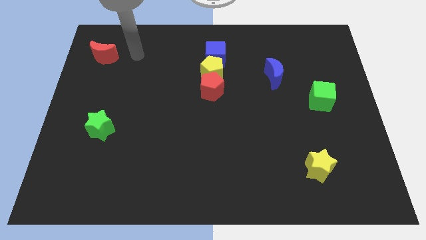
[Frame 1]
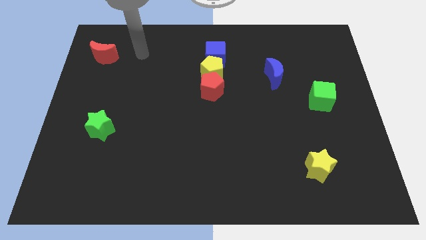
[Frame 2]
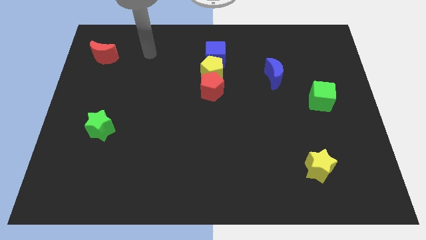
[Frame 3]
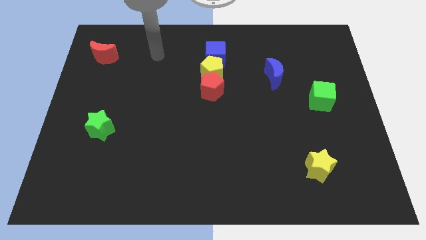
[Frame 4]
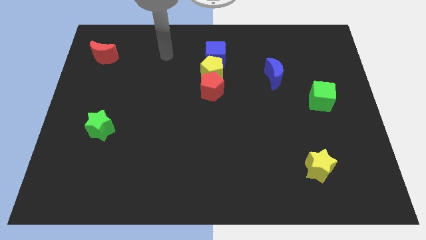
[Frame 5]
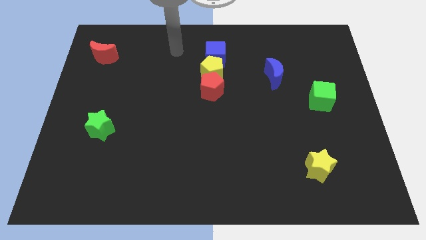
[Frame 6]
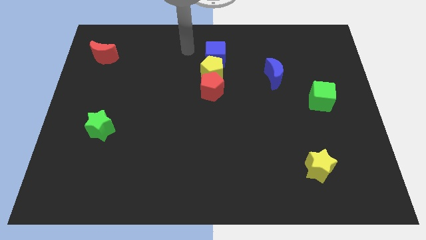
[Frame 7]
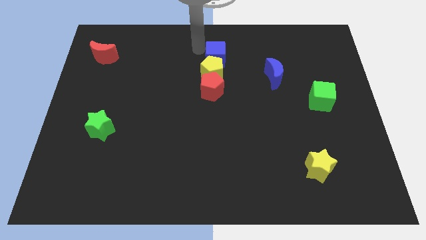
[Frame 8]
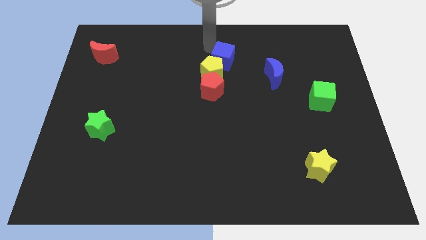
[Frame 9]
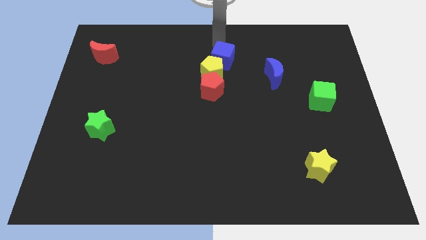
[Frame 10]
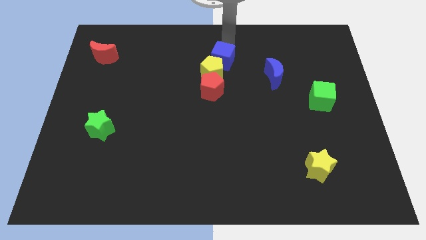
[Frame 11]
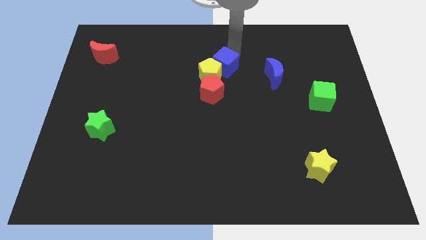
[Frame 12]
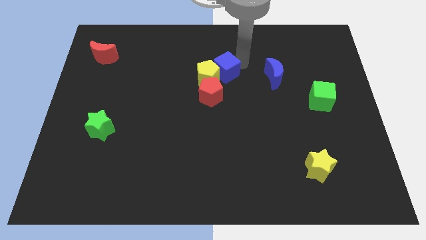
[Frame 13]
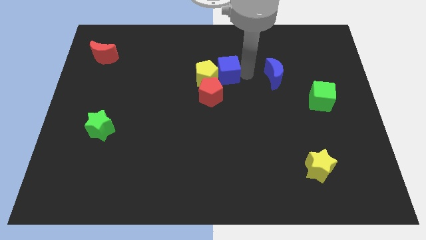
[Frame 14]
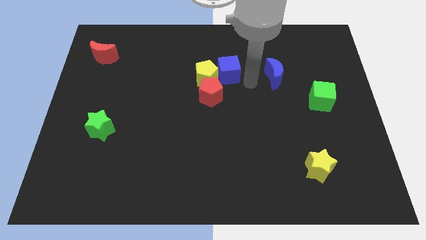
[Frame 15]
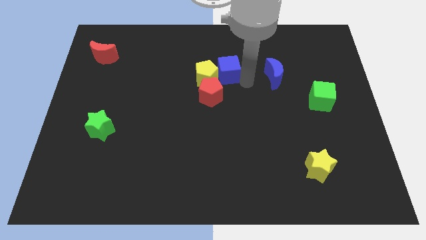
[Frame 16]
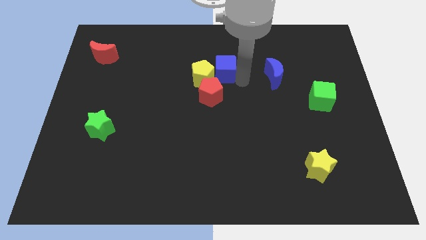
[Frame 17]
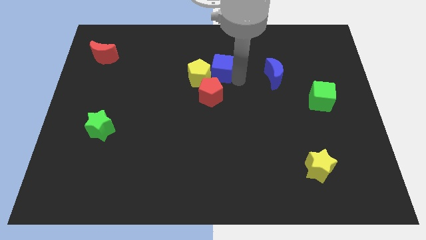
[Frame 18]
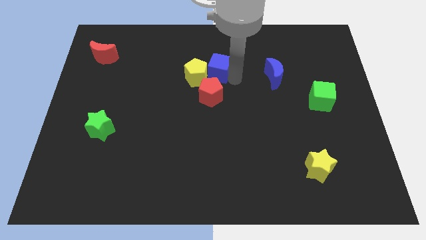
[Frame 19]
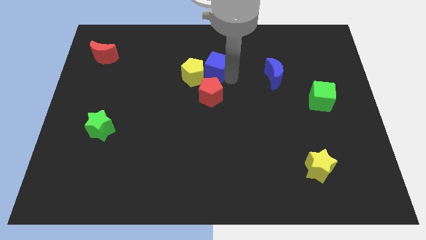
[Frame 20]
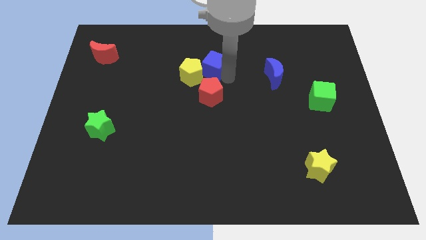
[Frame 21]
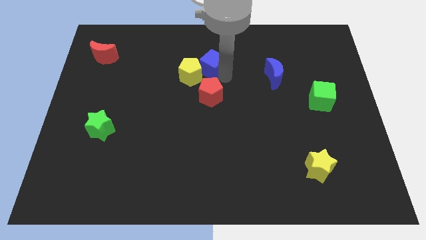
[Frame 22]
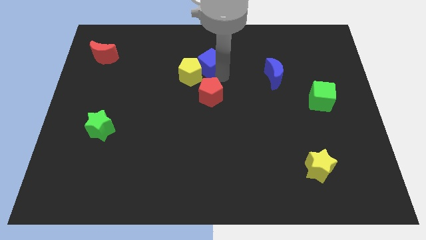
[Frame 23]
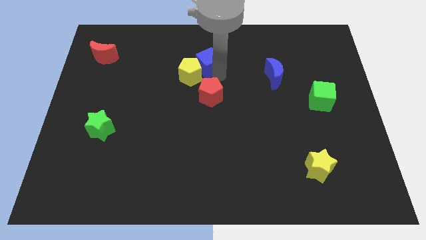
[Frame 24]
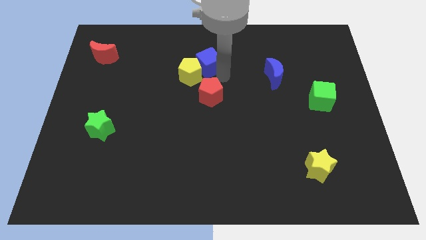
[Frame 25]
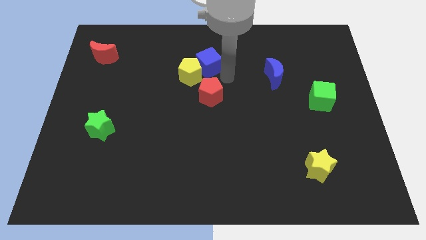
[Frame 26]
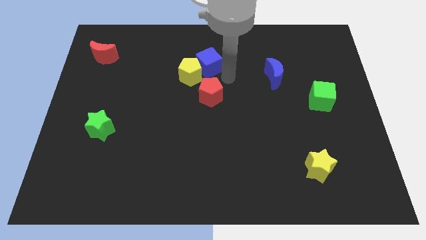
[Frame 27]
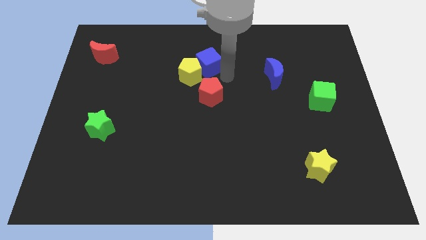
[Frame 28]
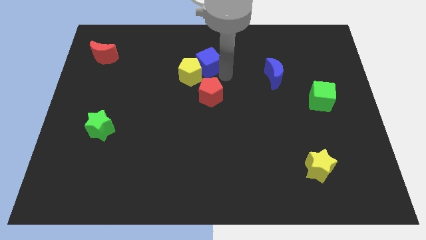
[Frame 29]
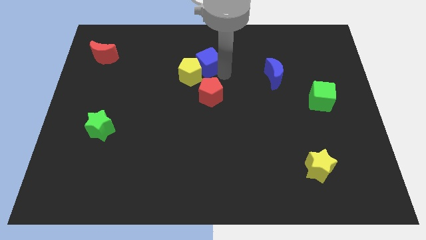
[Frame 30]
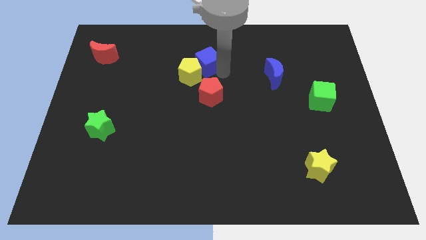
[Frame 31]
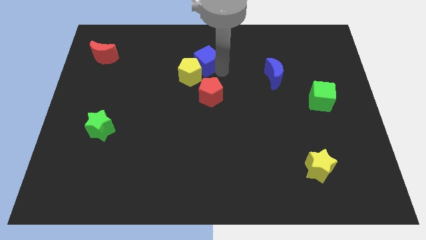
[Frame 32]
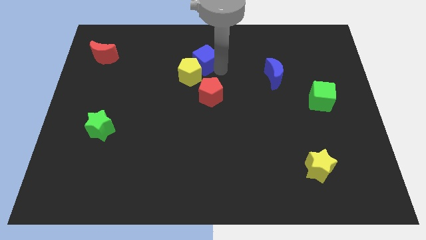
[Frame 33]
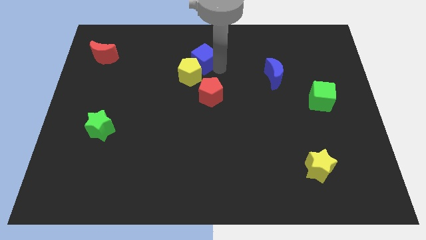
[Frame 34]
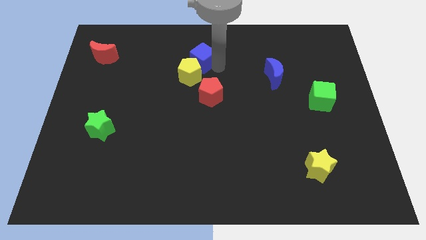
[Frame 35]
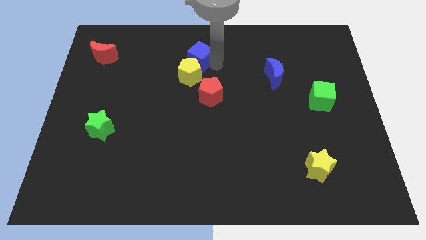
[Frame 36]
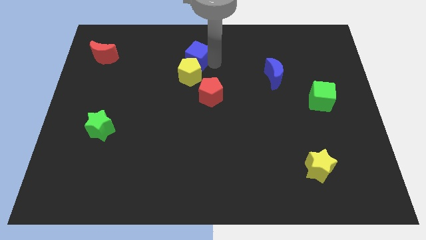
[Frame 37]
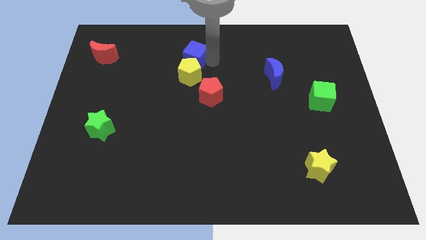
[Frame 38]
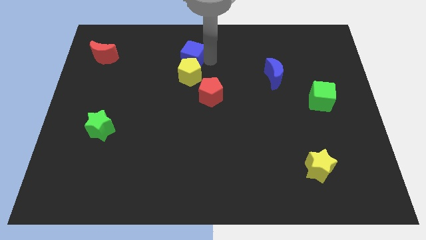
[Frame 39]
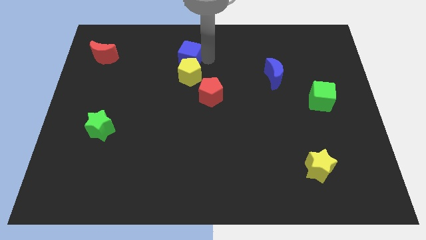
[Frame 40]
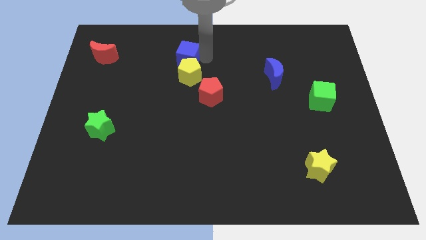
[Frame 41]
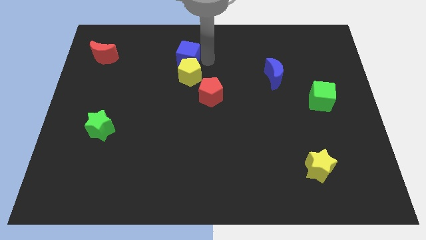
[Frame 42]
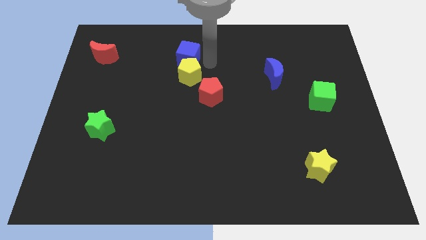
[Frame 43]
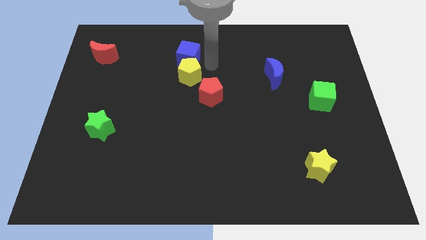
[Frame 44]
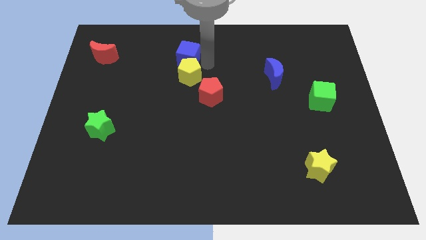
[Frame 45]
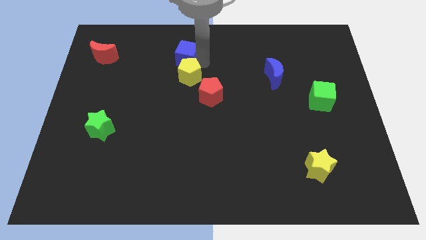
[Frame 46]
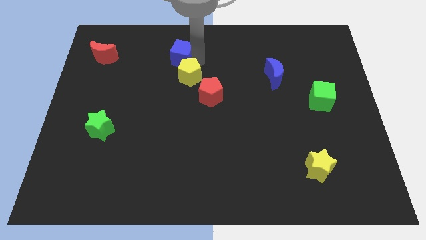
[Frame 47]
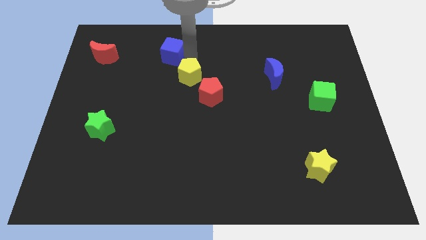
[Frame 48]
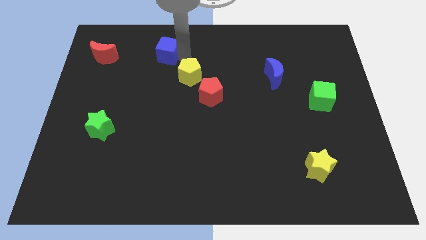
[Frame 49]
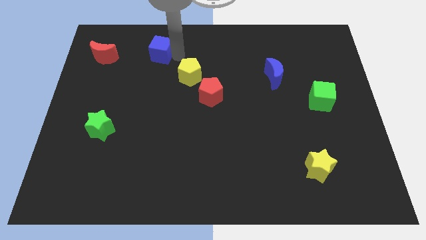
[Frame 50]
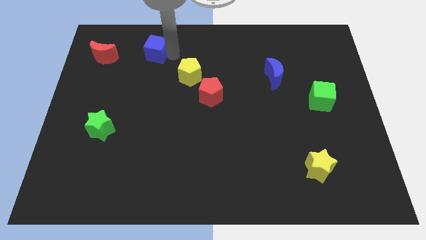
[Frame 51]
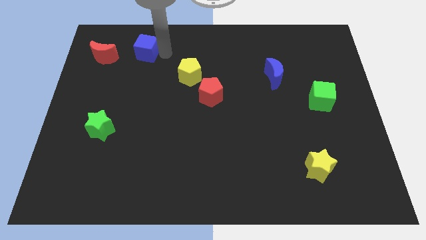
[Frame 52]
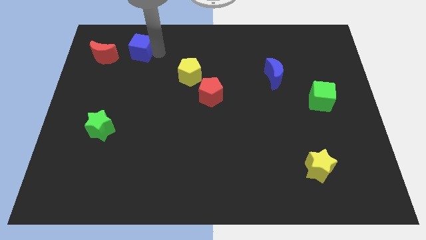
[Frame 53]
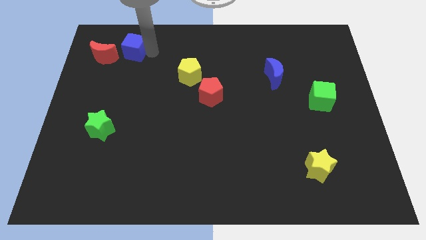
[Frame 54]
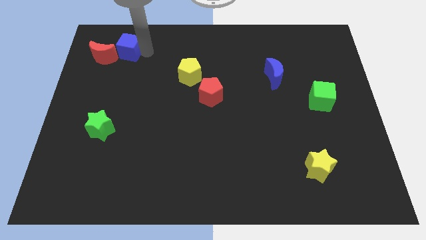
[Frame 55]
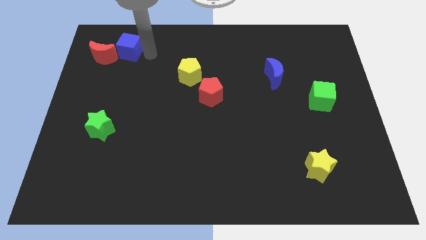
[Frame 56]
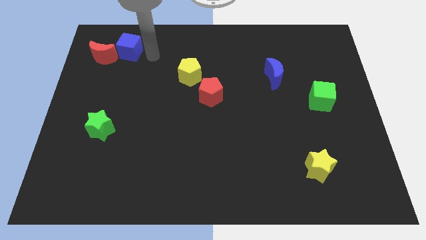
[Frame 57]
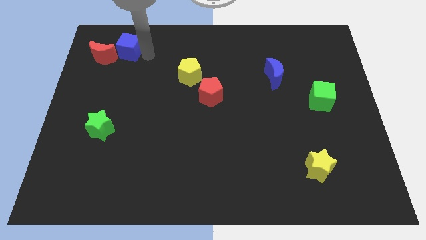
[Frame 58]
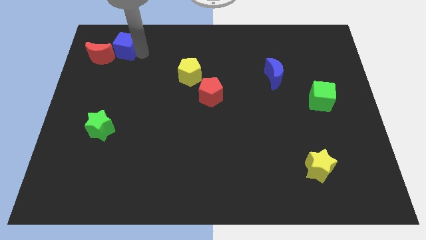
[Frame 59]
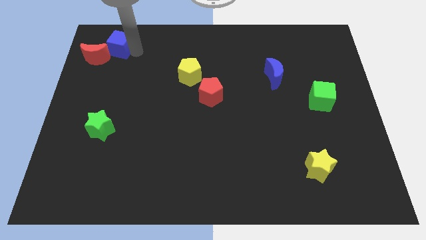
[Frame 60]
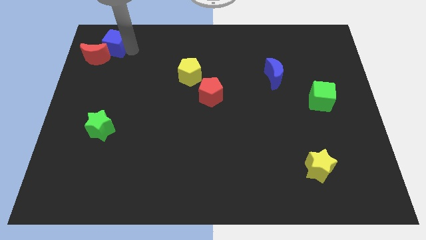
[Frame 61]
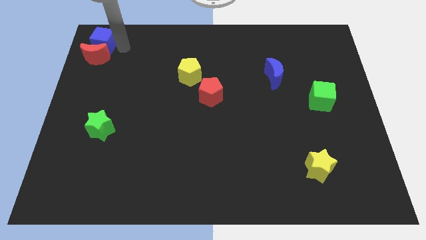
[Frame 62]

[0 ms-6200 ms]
slide the blue cube to the upper left corner

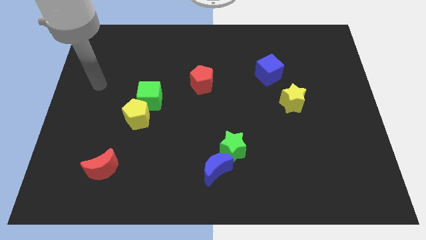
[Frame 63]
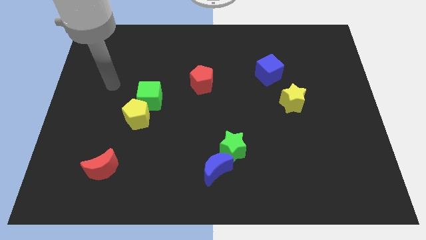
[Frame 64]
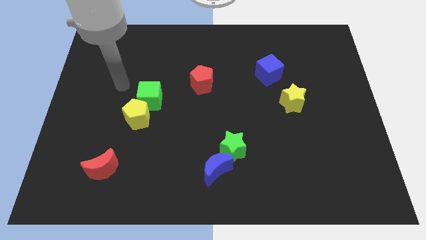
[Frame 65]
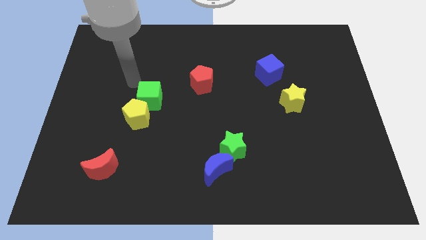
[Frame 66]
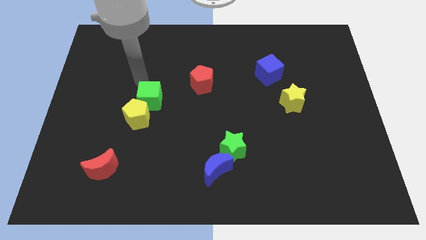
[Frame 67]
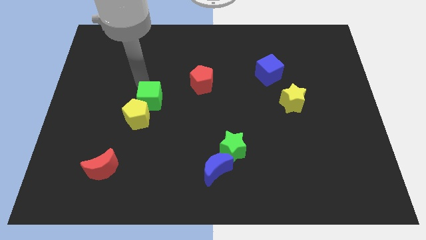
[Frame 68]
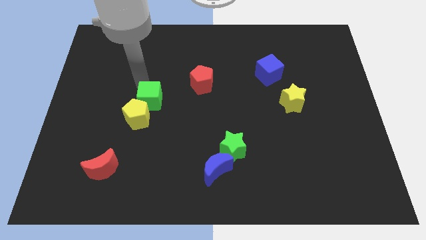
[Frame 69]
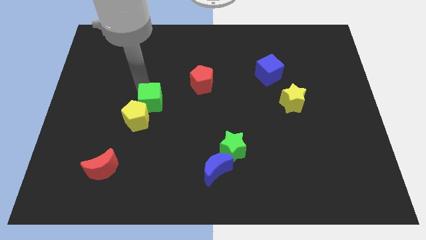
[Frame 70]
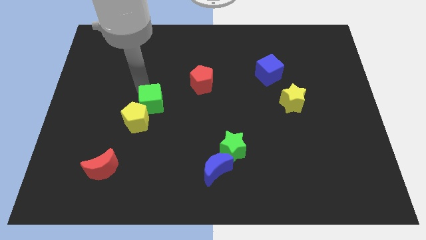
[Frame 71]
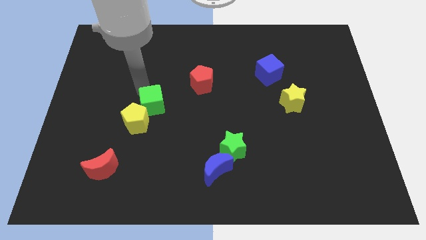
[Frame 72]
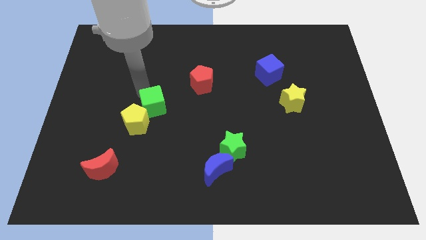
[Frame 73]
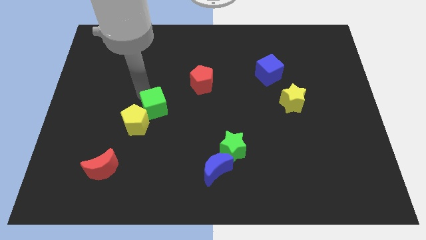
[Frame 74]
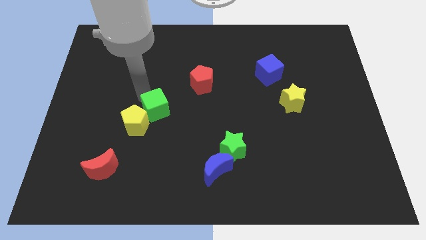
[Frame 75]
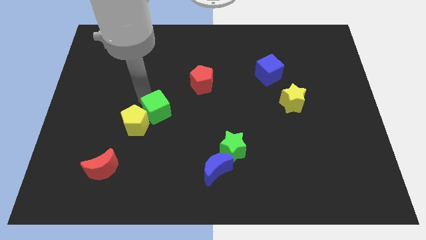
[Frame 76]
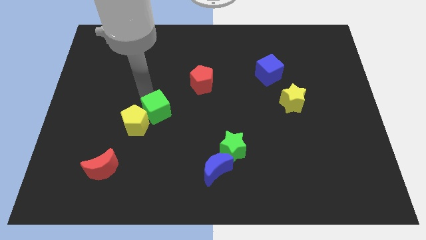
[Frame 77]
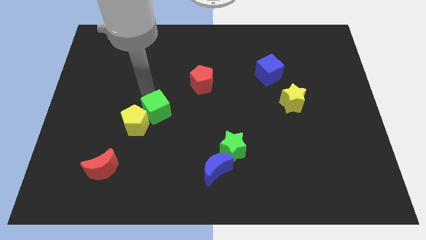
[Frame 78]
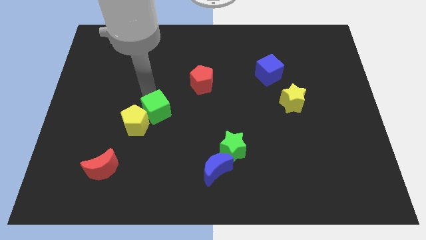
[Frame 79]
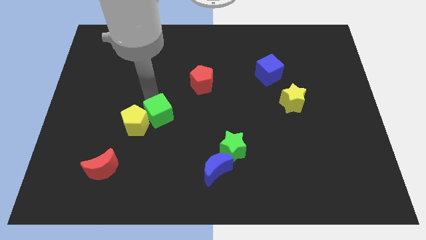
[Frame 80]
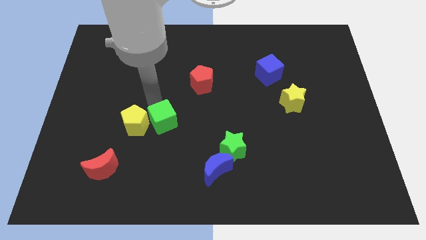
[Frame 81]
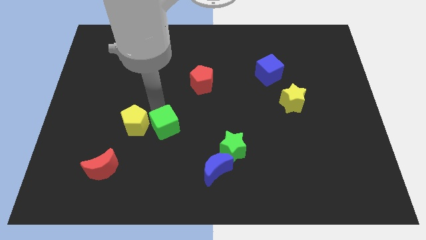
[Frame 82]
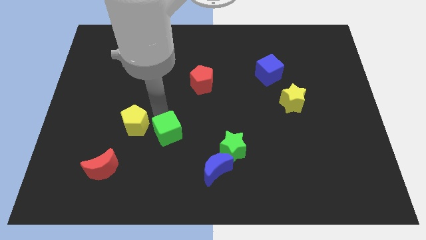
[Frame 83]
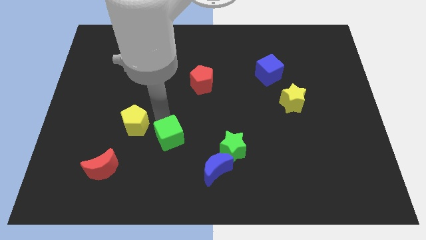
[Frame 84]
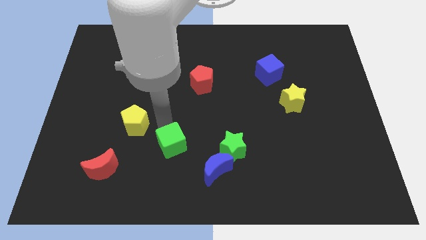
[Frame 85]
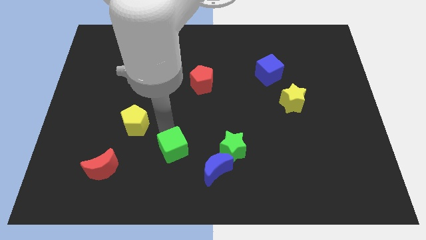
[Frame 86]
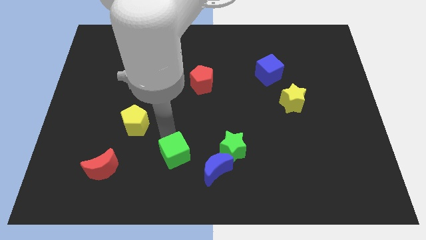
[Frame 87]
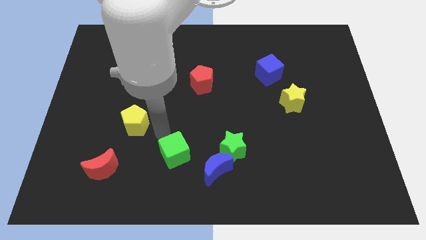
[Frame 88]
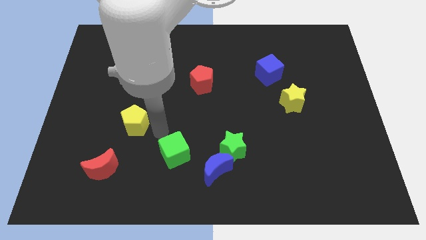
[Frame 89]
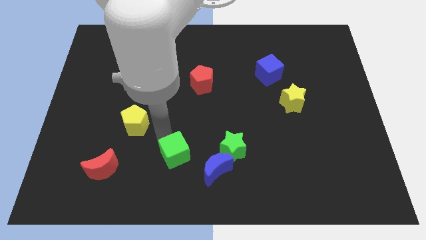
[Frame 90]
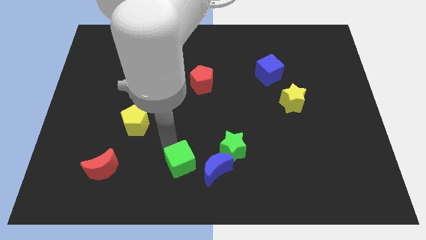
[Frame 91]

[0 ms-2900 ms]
slide the green cube to the bottom side
